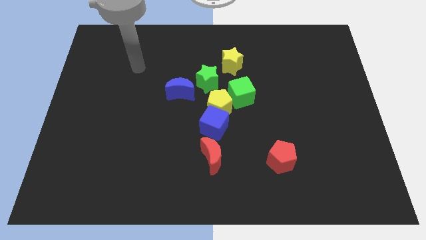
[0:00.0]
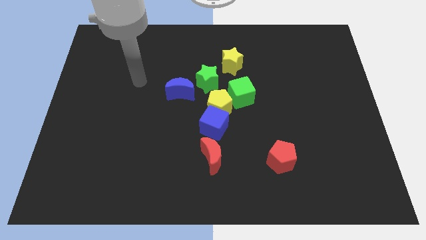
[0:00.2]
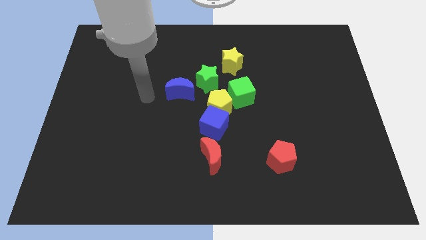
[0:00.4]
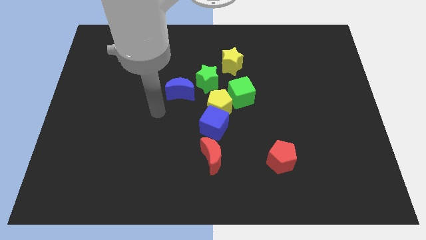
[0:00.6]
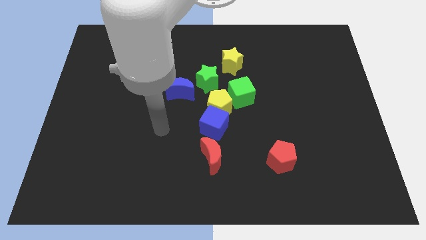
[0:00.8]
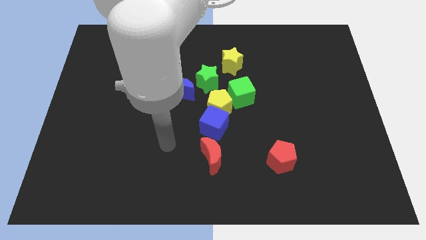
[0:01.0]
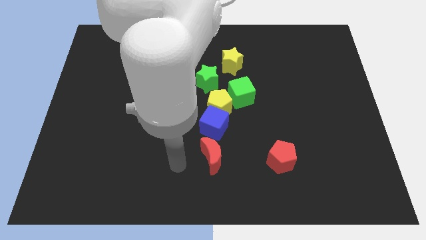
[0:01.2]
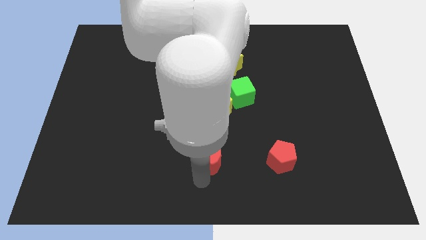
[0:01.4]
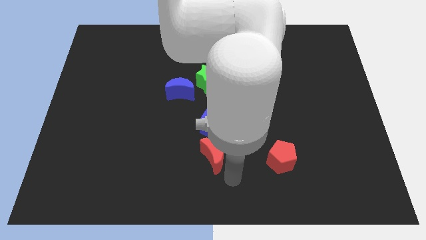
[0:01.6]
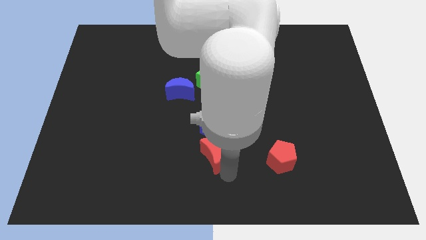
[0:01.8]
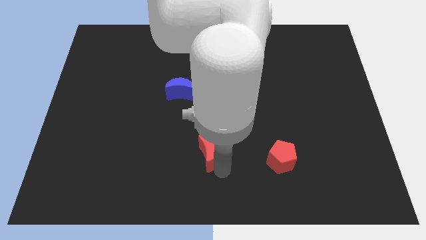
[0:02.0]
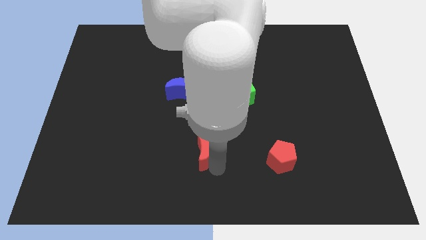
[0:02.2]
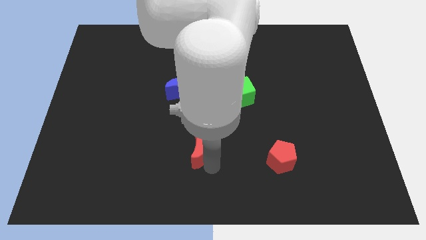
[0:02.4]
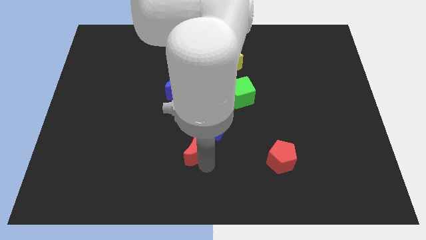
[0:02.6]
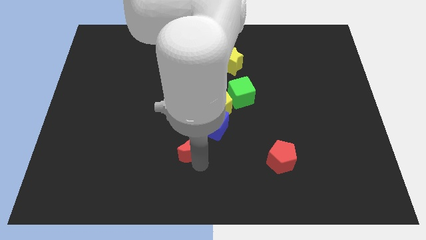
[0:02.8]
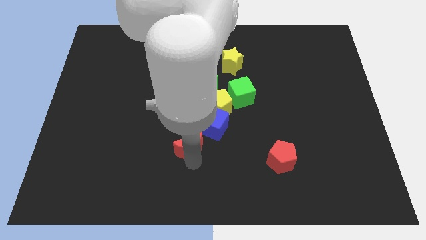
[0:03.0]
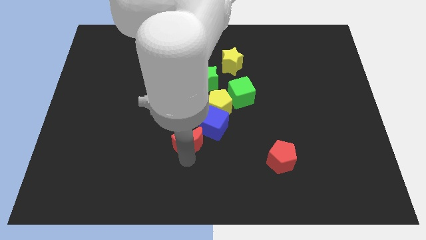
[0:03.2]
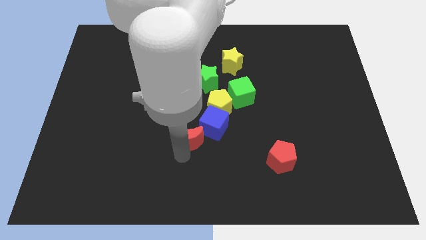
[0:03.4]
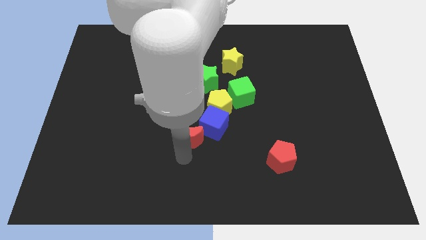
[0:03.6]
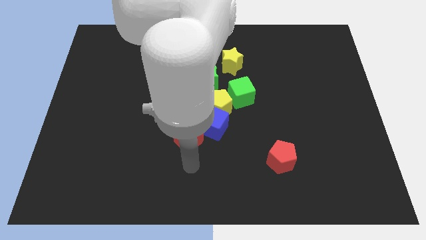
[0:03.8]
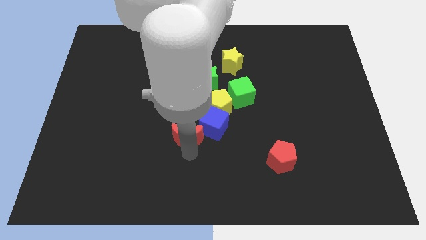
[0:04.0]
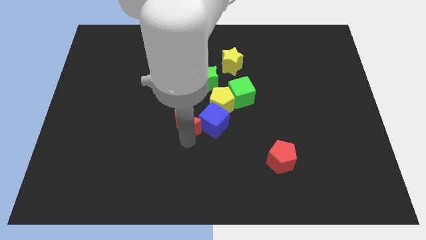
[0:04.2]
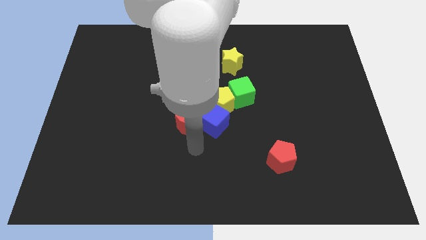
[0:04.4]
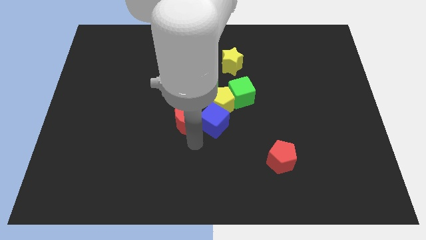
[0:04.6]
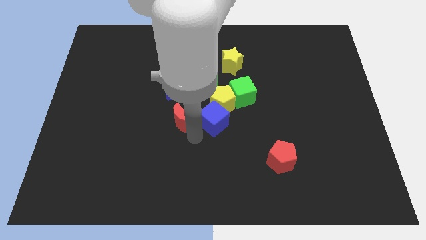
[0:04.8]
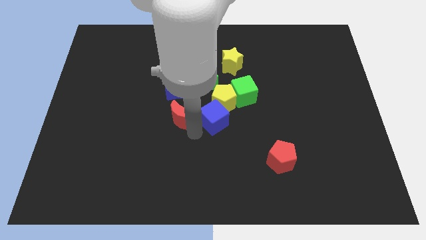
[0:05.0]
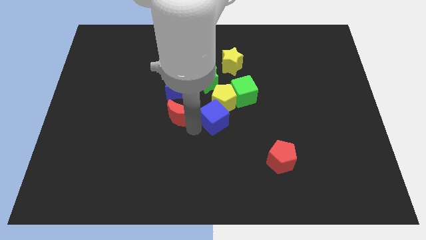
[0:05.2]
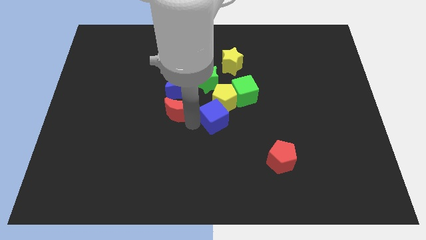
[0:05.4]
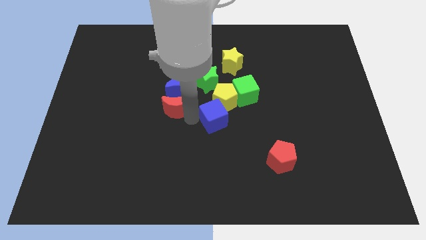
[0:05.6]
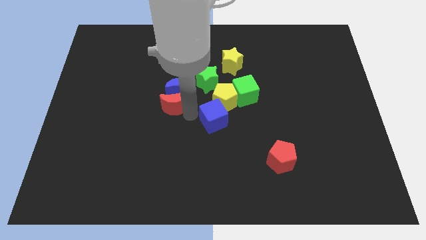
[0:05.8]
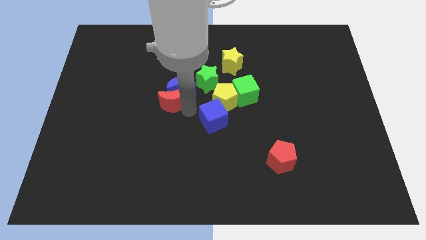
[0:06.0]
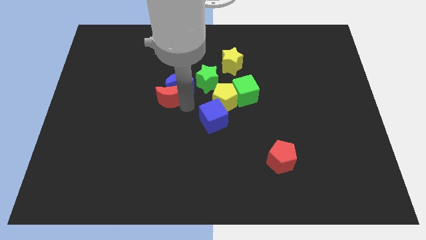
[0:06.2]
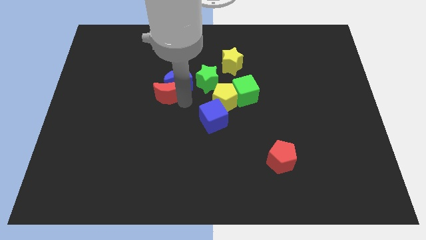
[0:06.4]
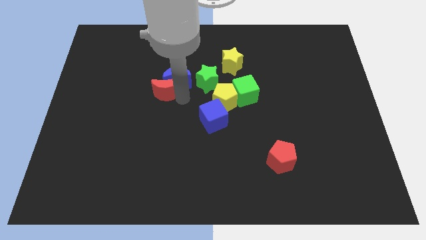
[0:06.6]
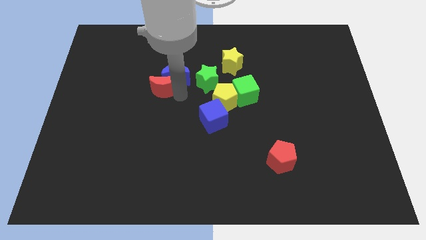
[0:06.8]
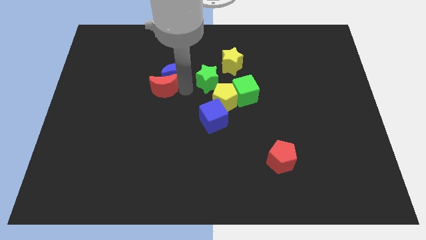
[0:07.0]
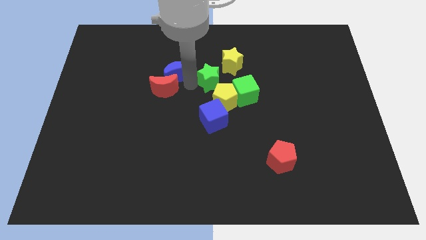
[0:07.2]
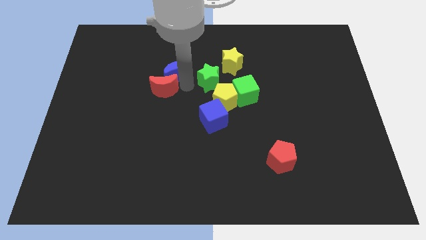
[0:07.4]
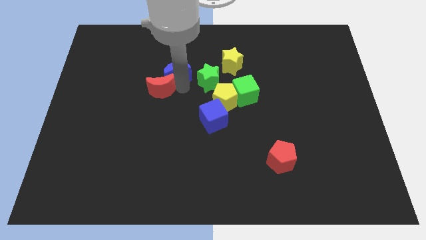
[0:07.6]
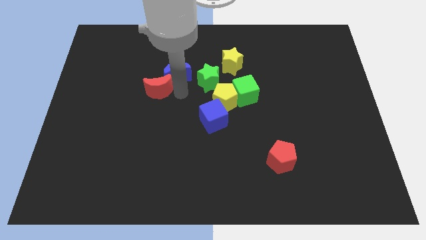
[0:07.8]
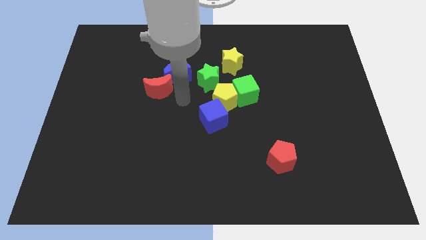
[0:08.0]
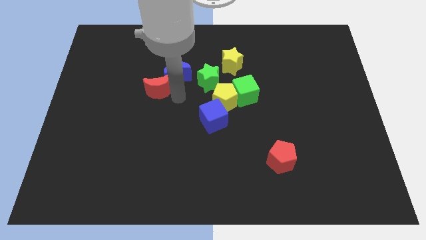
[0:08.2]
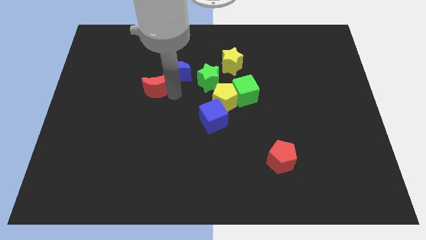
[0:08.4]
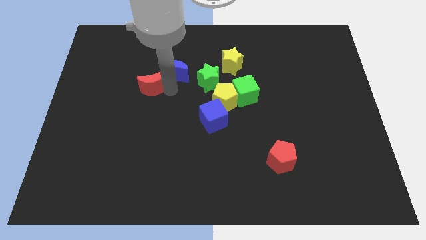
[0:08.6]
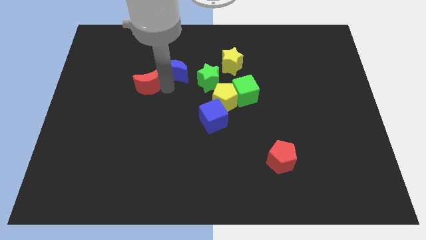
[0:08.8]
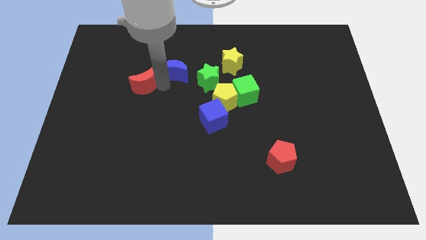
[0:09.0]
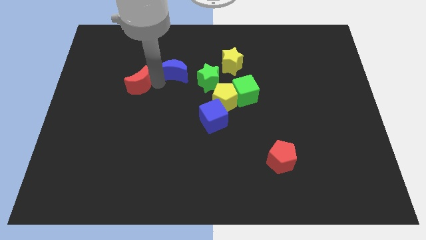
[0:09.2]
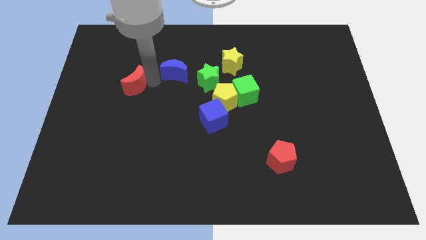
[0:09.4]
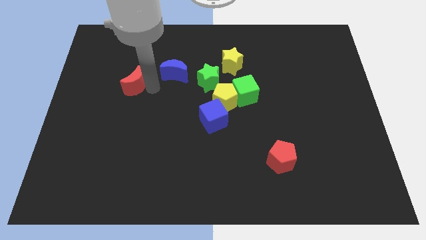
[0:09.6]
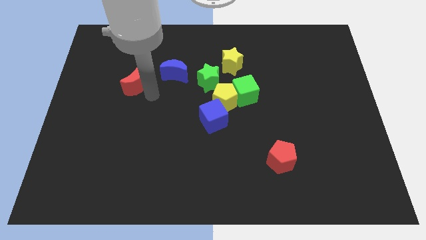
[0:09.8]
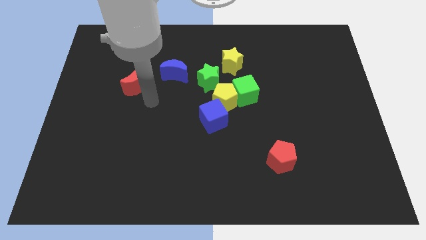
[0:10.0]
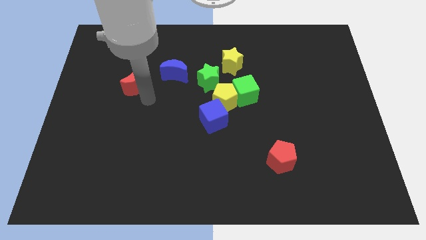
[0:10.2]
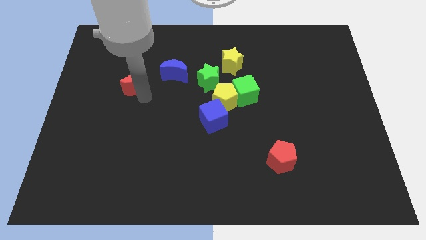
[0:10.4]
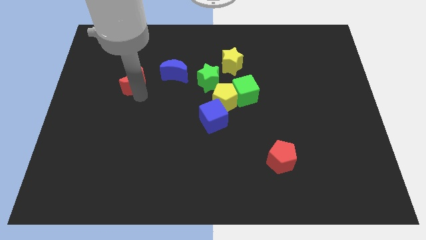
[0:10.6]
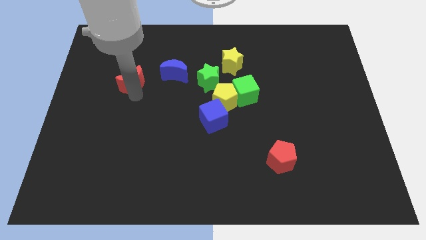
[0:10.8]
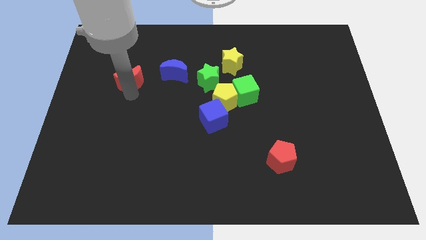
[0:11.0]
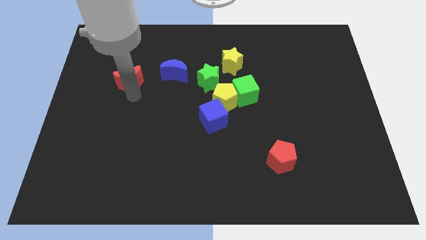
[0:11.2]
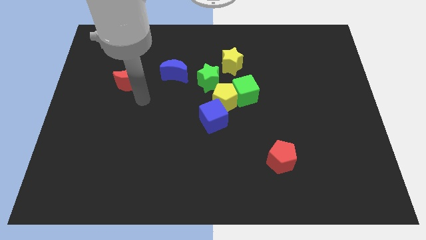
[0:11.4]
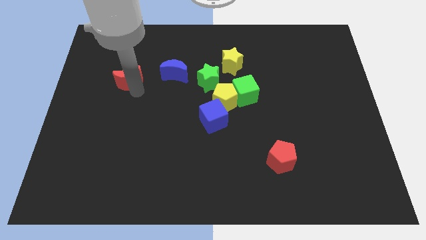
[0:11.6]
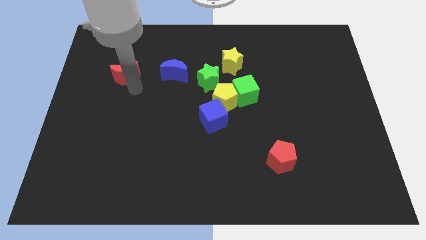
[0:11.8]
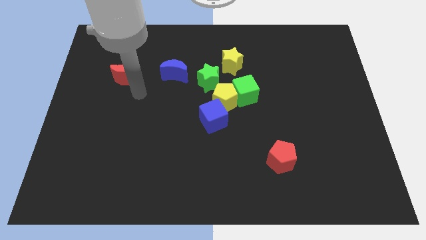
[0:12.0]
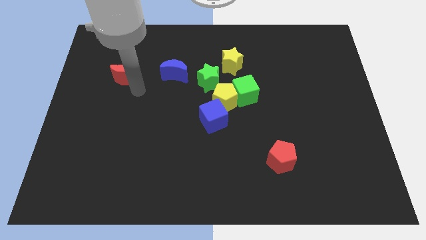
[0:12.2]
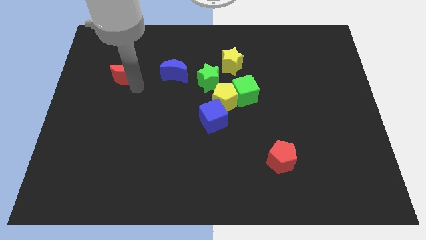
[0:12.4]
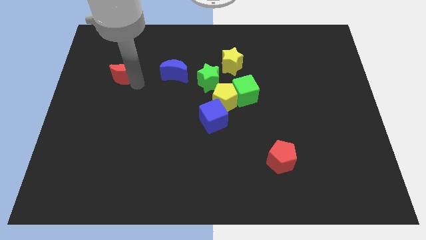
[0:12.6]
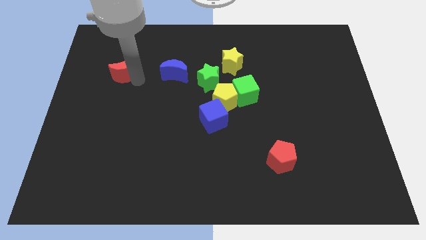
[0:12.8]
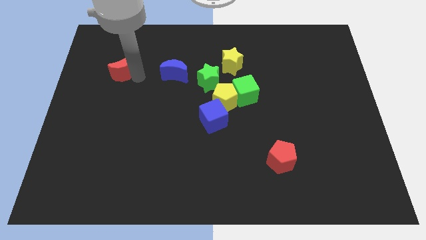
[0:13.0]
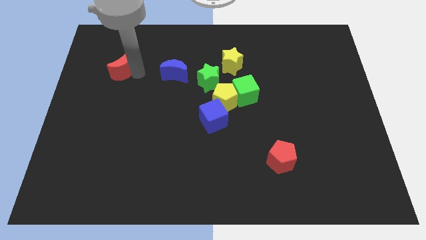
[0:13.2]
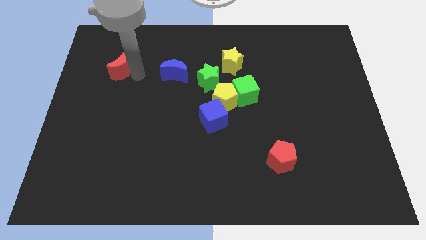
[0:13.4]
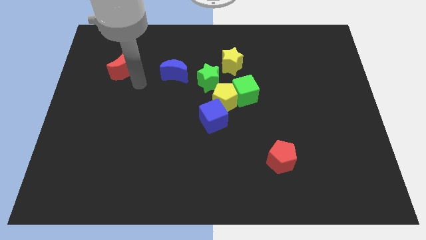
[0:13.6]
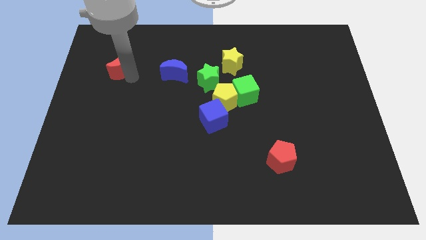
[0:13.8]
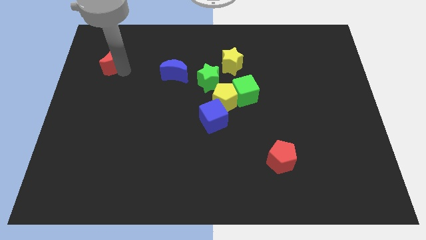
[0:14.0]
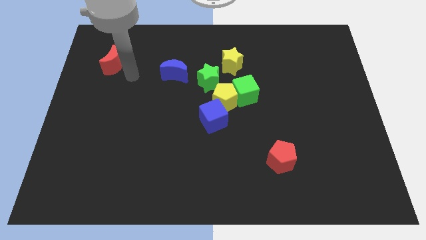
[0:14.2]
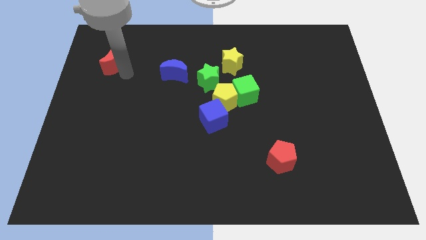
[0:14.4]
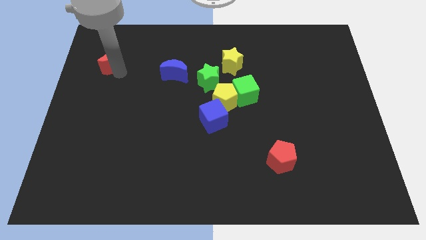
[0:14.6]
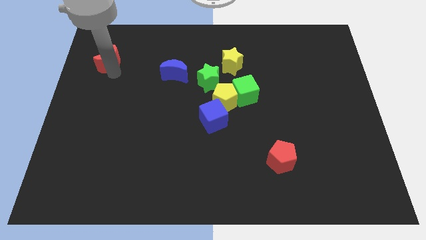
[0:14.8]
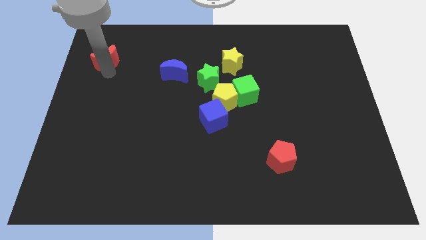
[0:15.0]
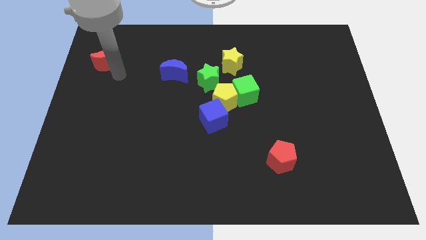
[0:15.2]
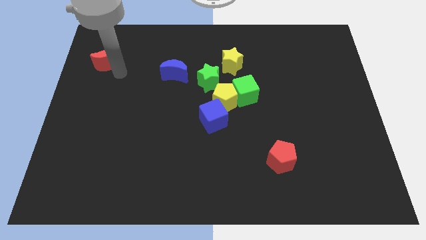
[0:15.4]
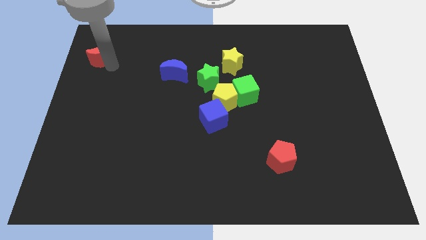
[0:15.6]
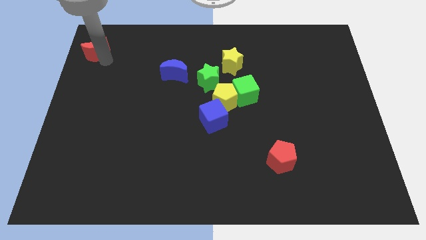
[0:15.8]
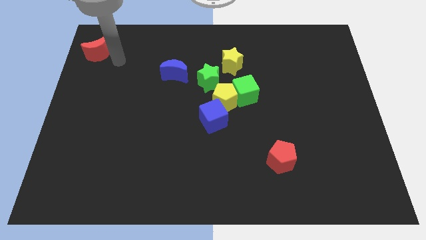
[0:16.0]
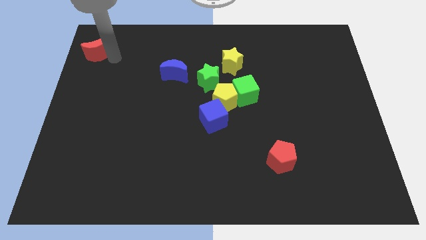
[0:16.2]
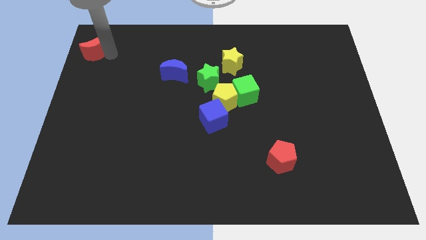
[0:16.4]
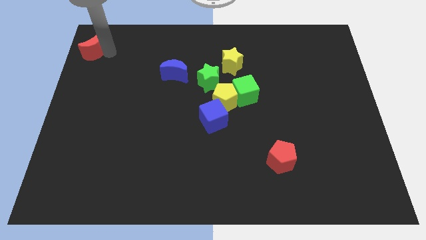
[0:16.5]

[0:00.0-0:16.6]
push the red moon to the top left
